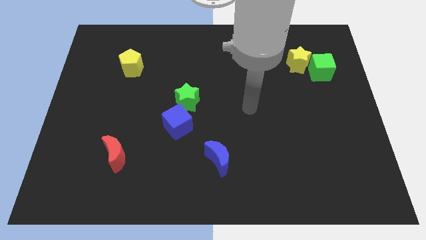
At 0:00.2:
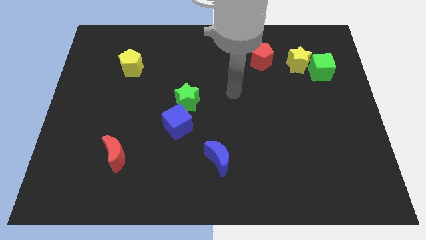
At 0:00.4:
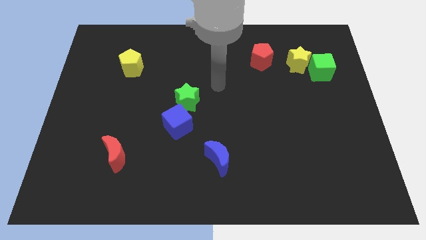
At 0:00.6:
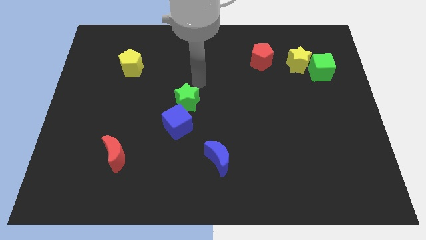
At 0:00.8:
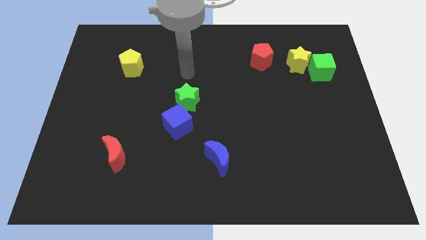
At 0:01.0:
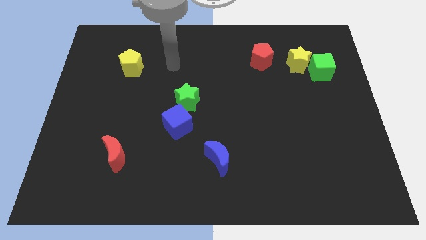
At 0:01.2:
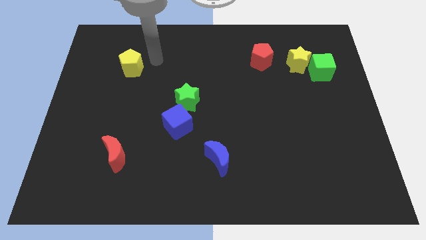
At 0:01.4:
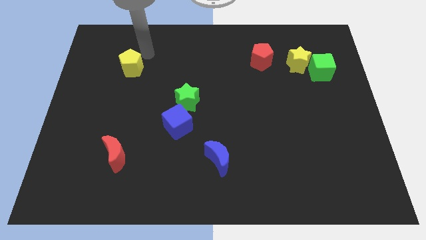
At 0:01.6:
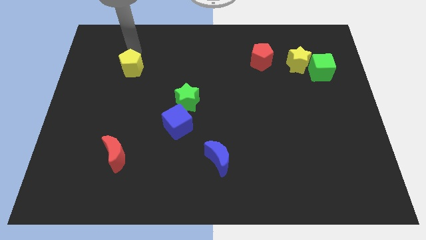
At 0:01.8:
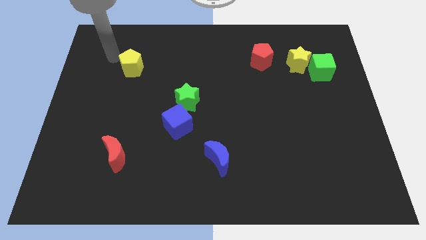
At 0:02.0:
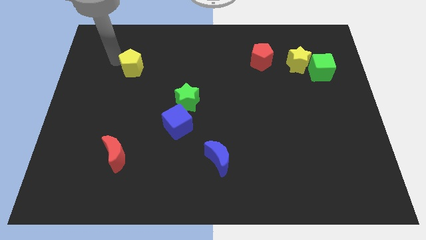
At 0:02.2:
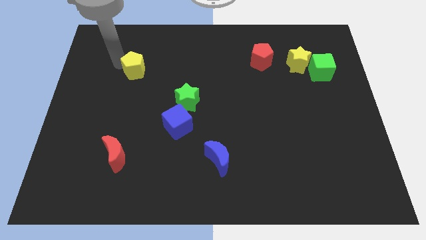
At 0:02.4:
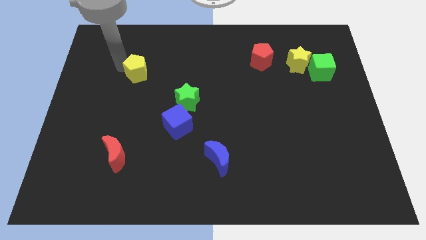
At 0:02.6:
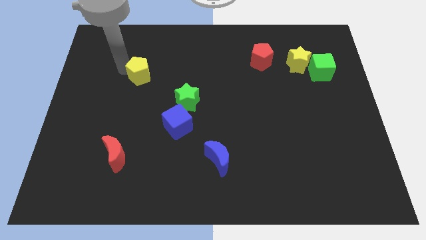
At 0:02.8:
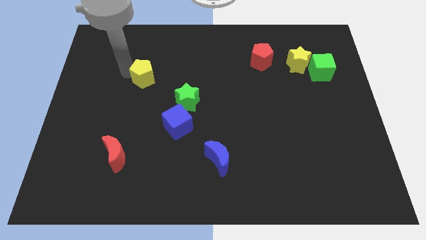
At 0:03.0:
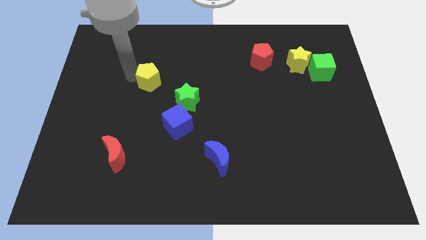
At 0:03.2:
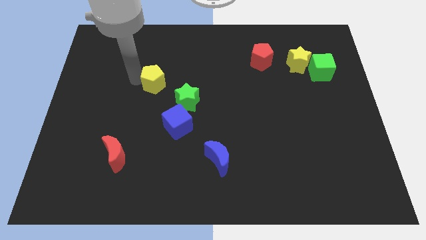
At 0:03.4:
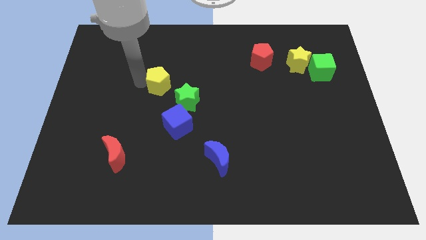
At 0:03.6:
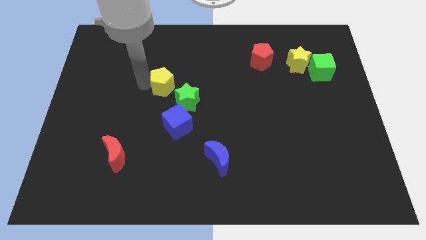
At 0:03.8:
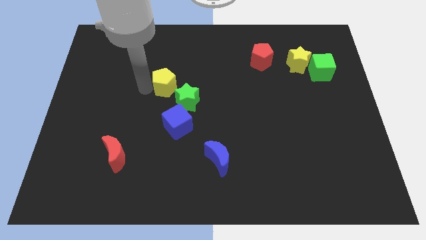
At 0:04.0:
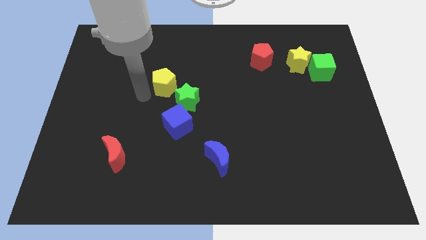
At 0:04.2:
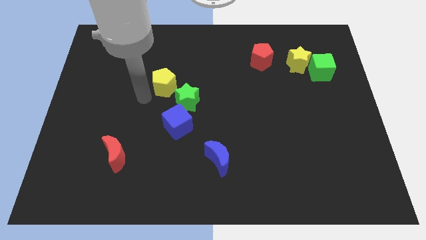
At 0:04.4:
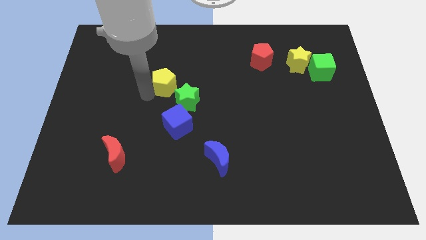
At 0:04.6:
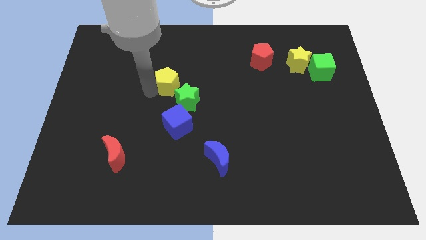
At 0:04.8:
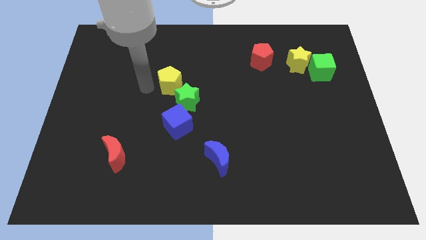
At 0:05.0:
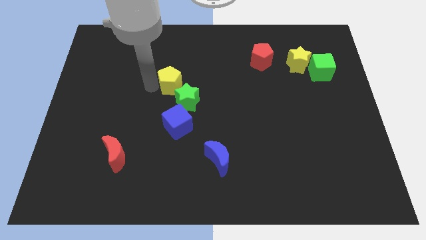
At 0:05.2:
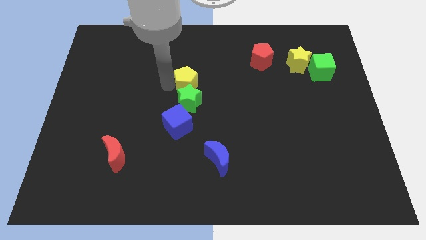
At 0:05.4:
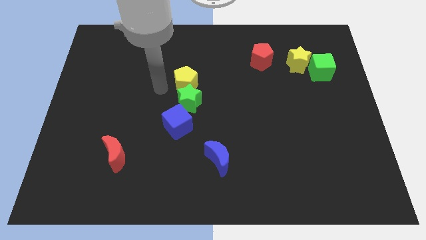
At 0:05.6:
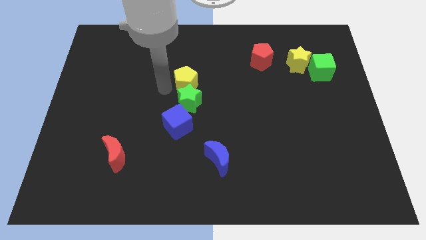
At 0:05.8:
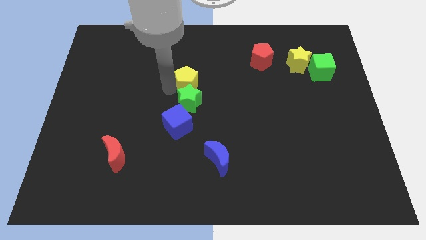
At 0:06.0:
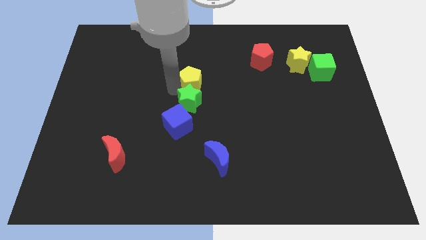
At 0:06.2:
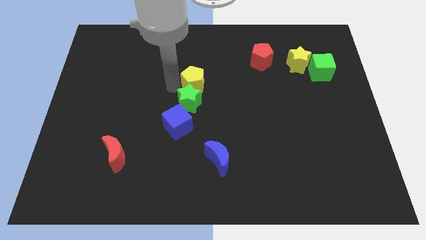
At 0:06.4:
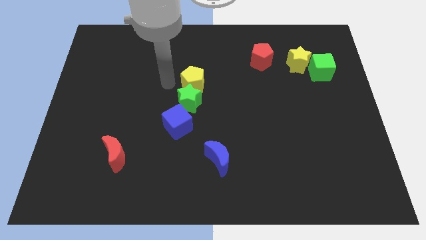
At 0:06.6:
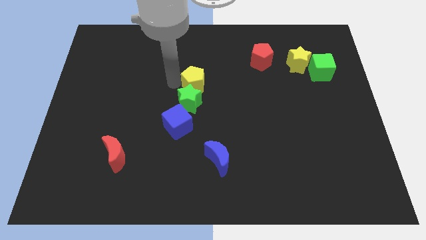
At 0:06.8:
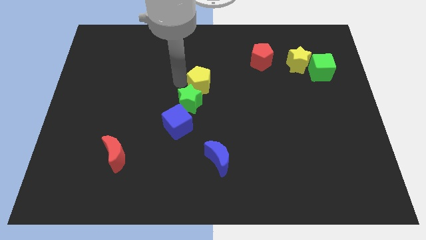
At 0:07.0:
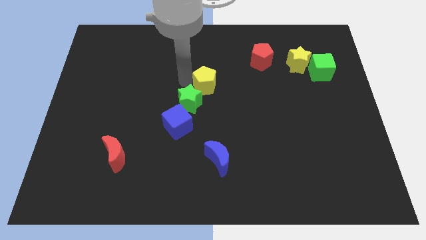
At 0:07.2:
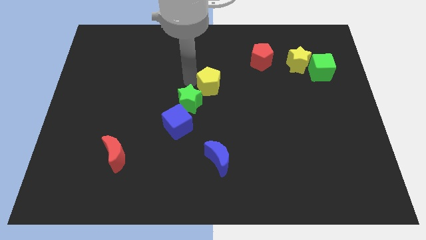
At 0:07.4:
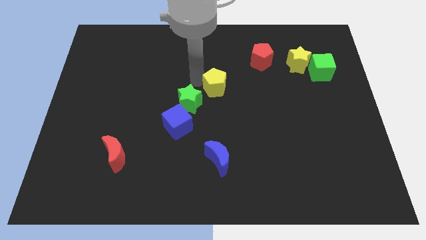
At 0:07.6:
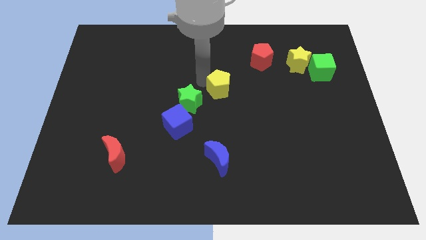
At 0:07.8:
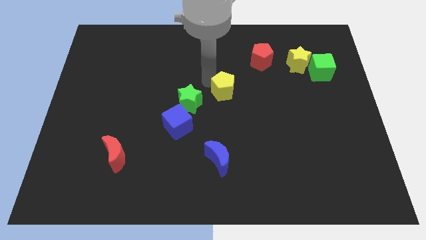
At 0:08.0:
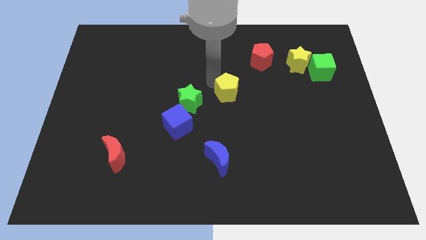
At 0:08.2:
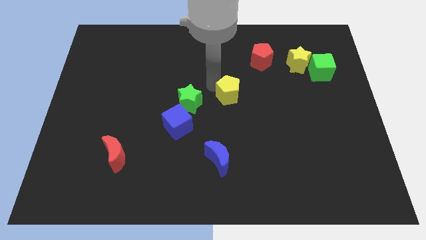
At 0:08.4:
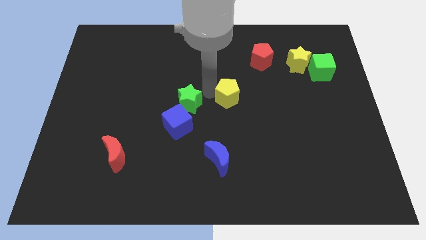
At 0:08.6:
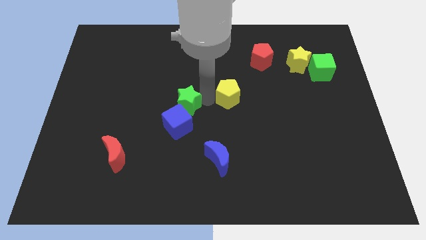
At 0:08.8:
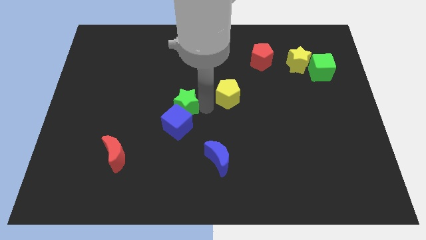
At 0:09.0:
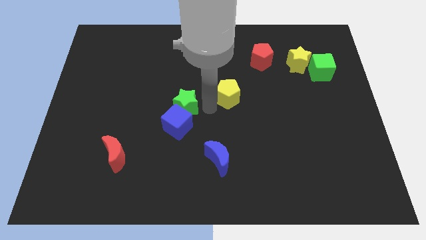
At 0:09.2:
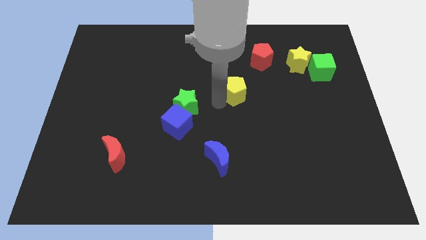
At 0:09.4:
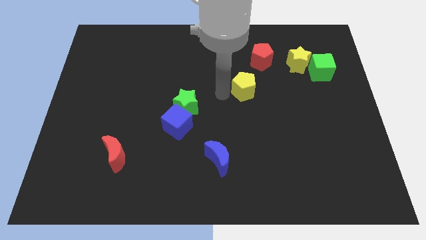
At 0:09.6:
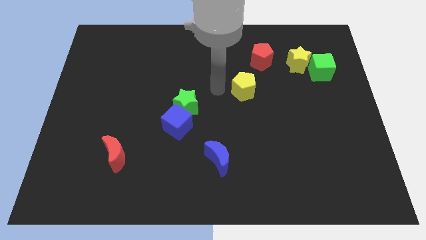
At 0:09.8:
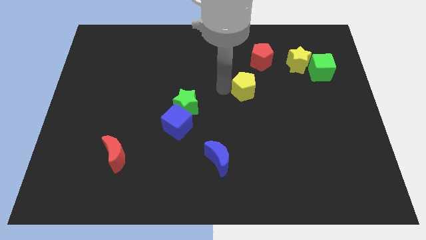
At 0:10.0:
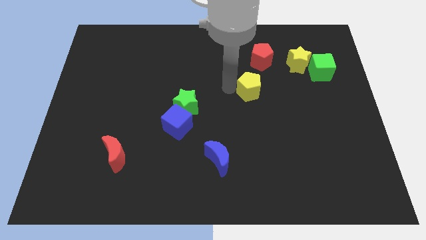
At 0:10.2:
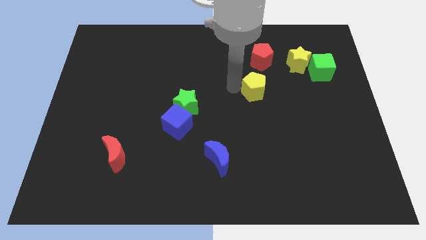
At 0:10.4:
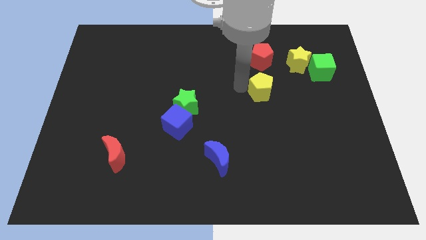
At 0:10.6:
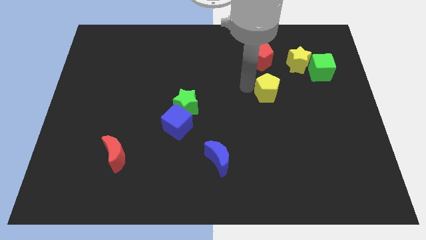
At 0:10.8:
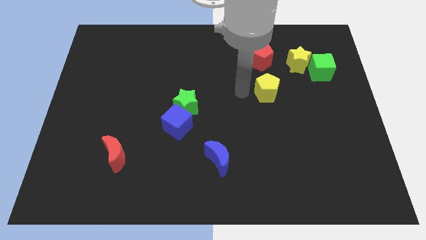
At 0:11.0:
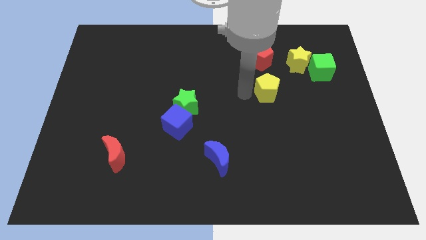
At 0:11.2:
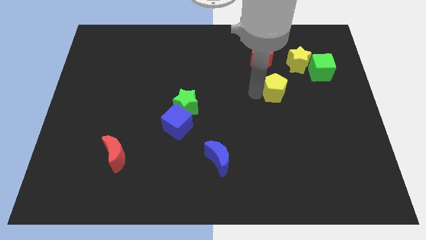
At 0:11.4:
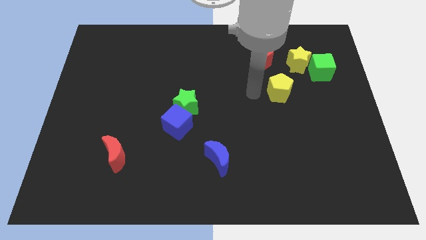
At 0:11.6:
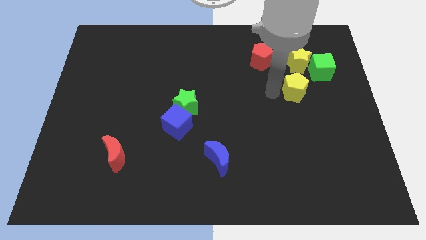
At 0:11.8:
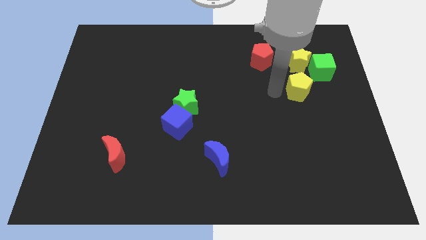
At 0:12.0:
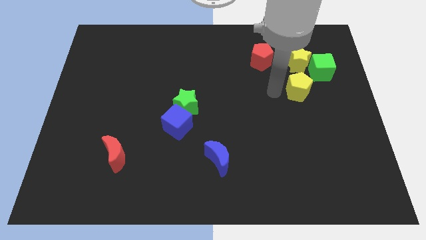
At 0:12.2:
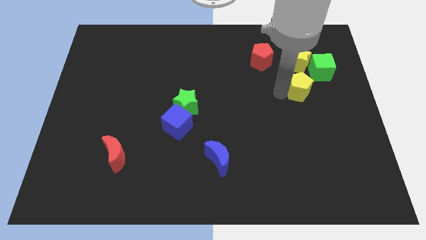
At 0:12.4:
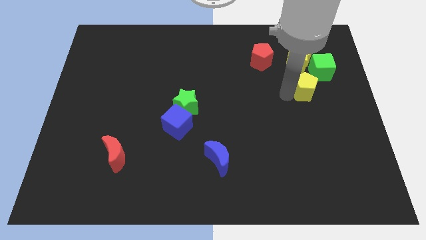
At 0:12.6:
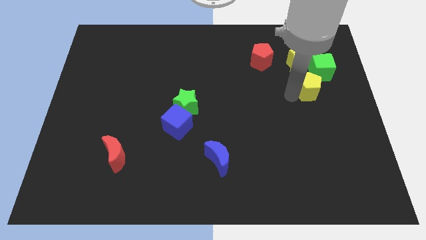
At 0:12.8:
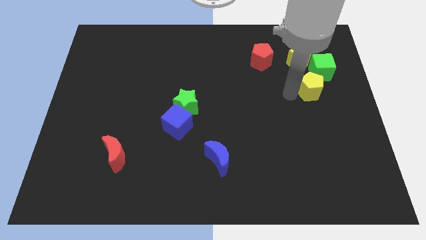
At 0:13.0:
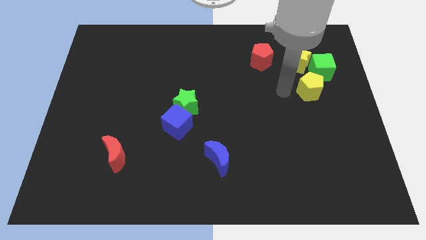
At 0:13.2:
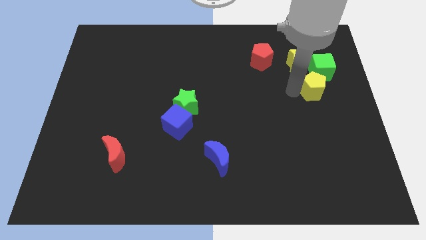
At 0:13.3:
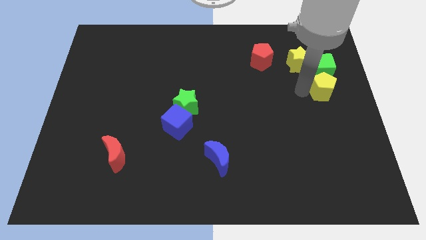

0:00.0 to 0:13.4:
slide the yellow pentagon to the right side of the board

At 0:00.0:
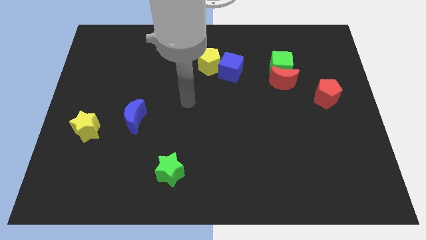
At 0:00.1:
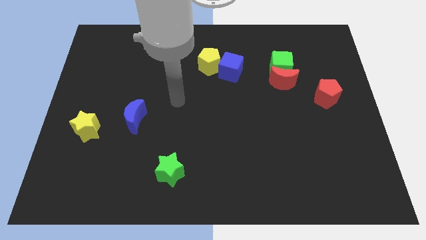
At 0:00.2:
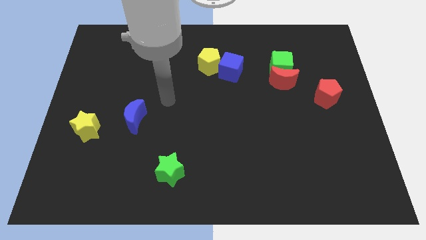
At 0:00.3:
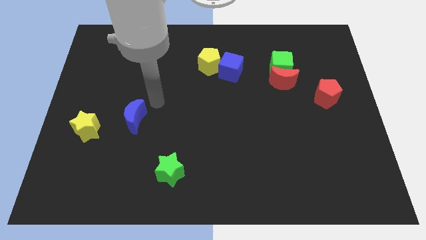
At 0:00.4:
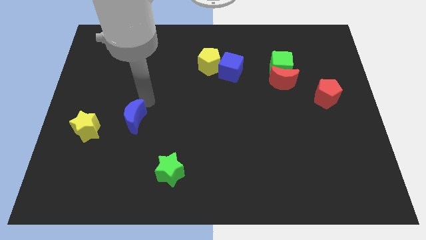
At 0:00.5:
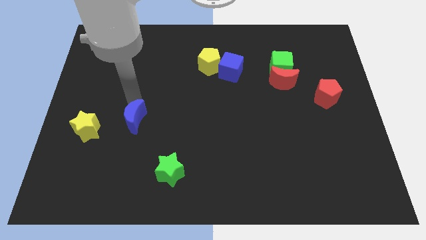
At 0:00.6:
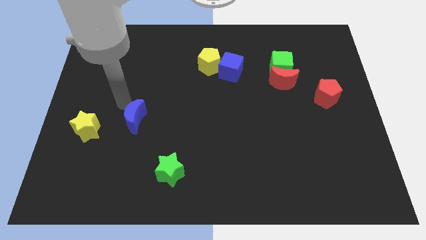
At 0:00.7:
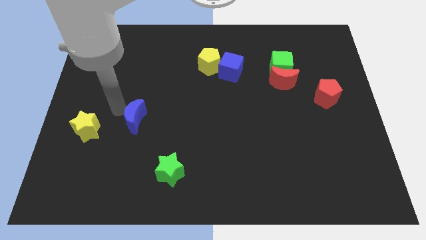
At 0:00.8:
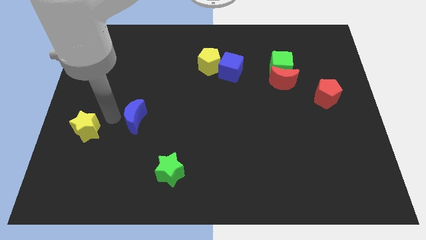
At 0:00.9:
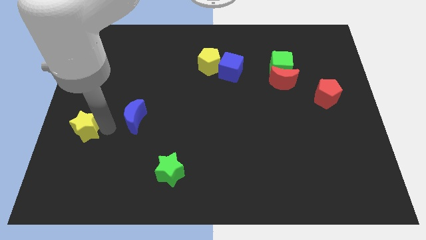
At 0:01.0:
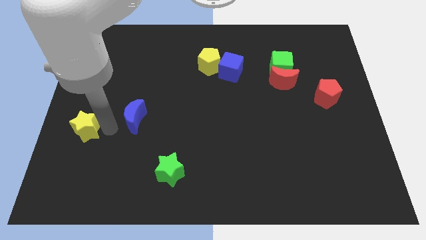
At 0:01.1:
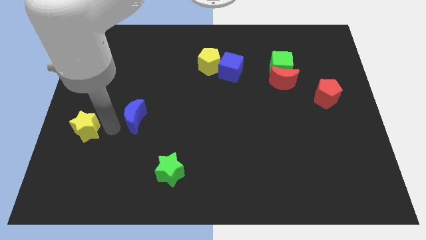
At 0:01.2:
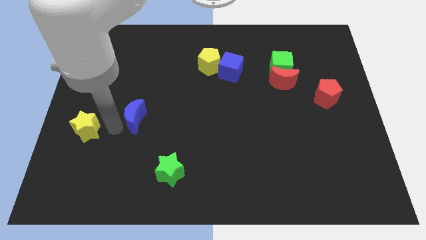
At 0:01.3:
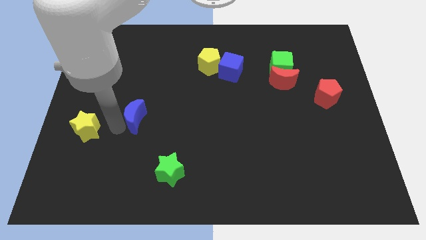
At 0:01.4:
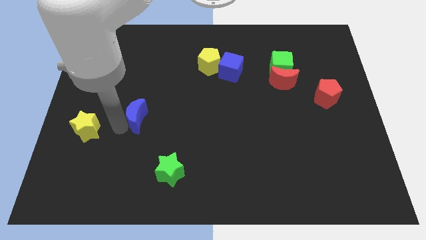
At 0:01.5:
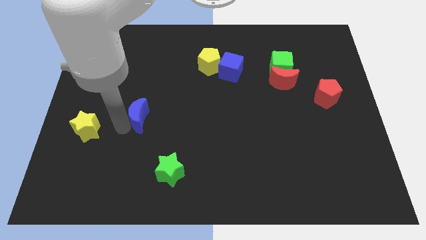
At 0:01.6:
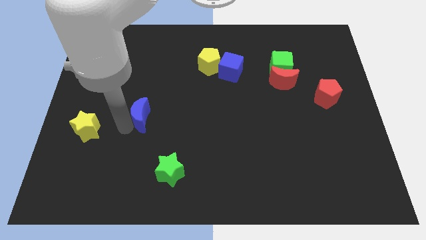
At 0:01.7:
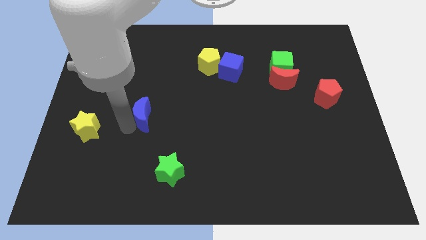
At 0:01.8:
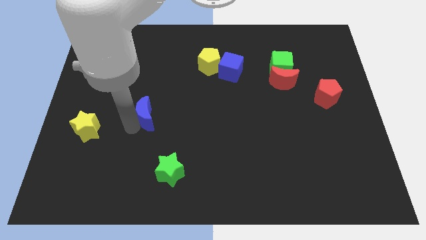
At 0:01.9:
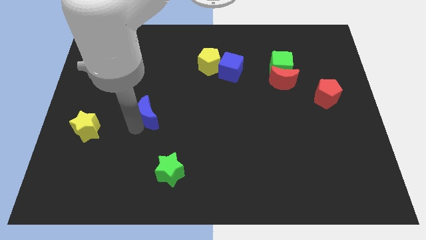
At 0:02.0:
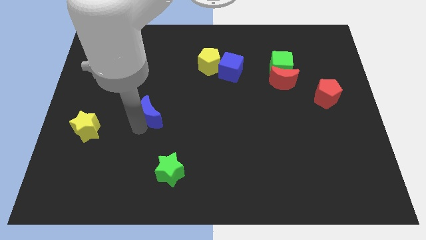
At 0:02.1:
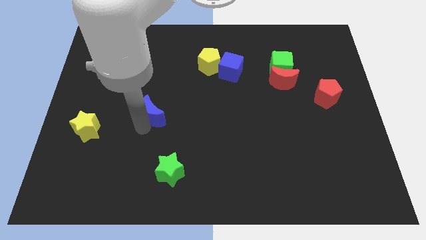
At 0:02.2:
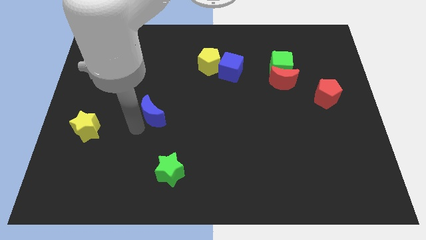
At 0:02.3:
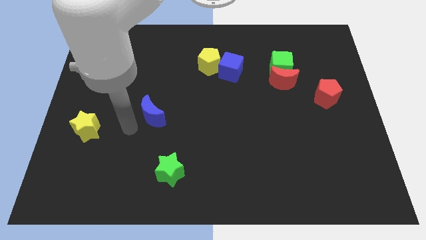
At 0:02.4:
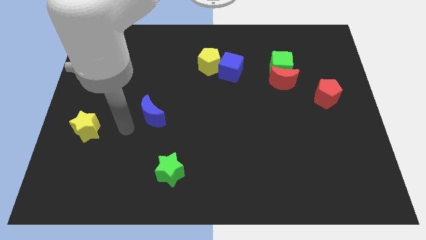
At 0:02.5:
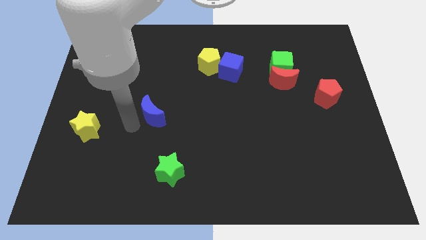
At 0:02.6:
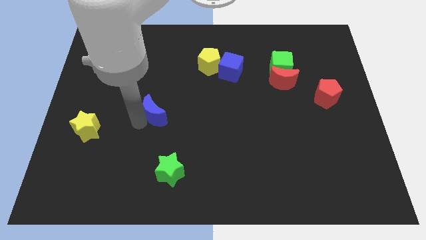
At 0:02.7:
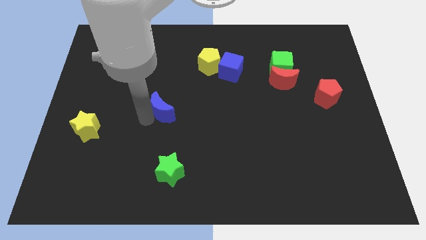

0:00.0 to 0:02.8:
push the blue moon to the middle of the board
